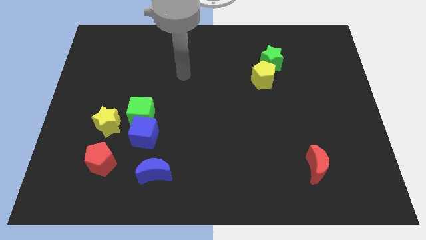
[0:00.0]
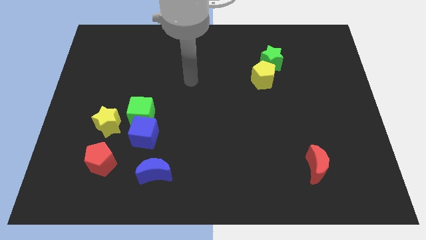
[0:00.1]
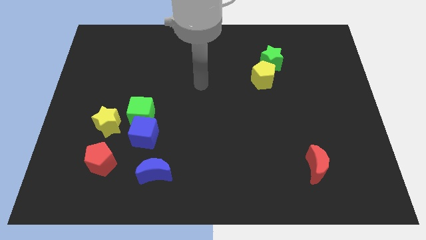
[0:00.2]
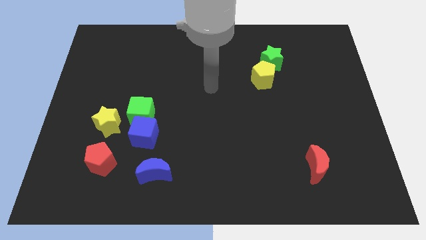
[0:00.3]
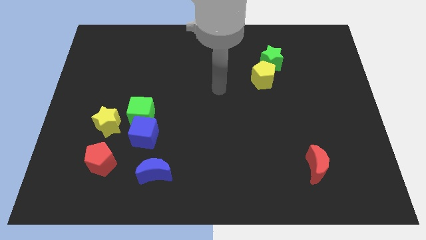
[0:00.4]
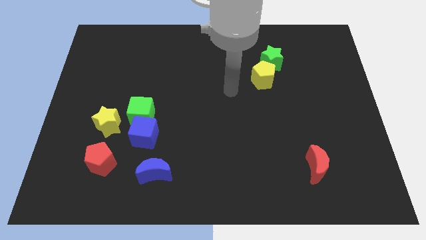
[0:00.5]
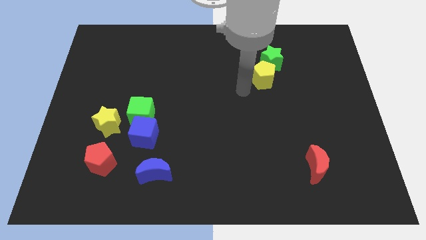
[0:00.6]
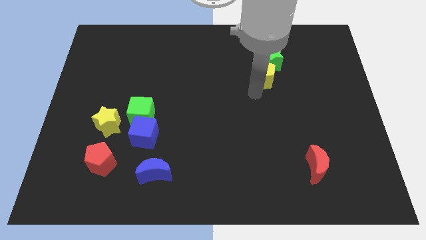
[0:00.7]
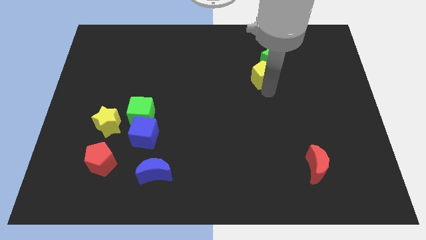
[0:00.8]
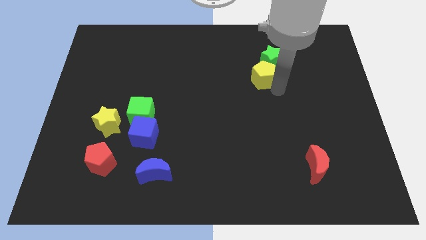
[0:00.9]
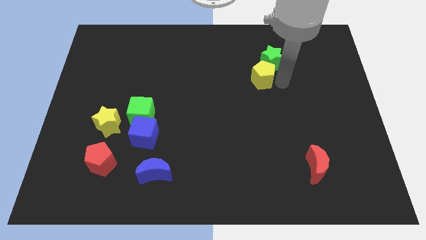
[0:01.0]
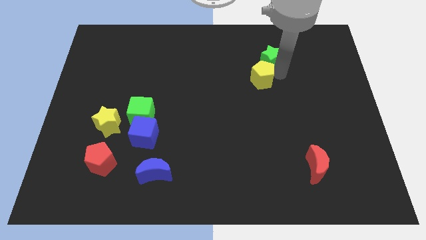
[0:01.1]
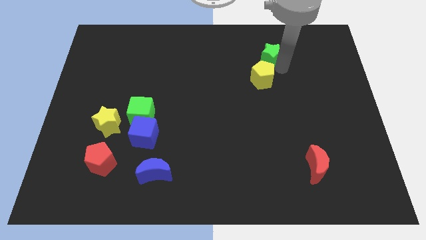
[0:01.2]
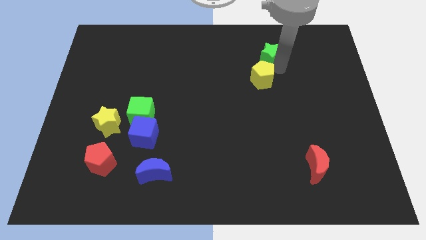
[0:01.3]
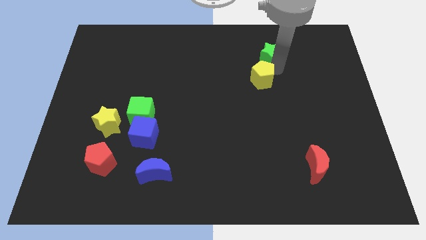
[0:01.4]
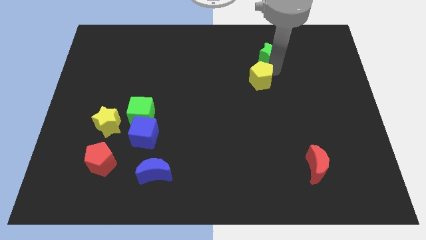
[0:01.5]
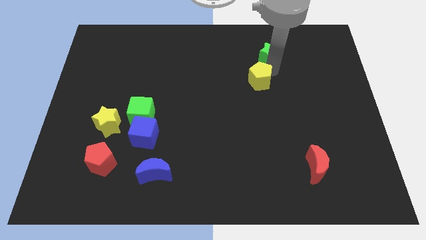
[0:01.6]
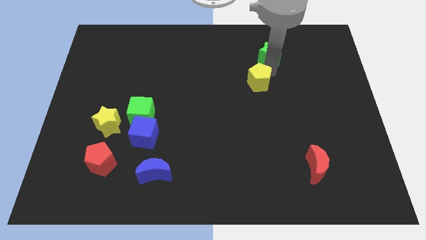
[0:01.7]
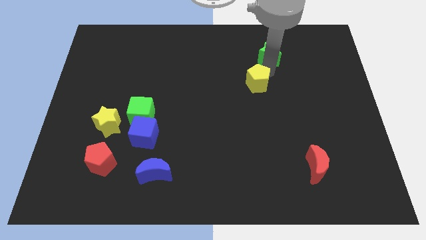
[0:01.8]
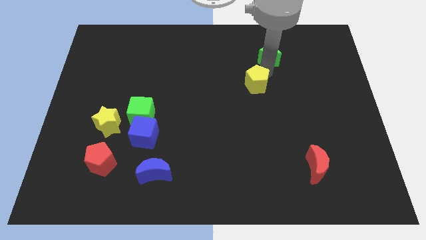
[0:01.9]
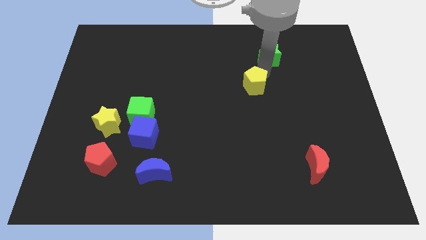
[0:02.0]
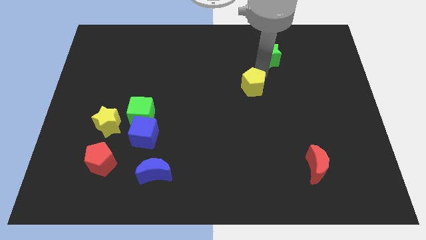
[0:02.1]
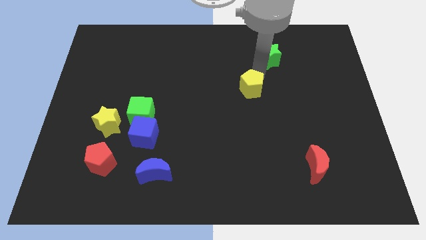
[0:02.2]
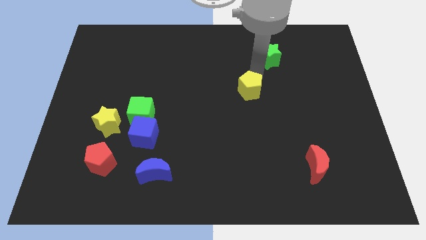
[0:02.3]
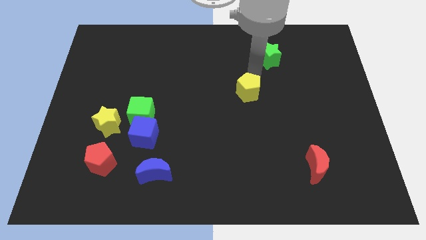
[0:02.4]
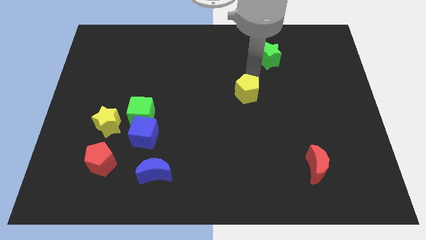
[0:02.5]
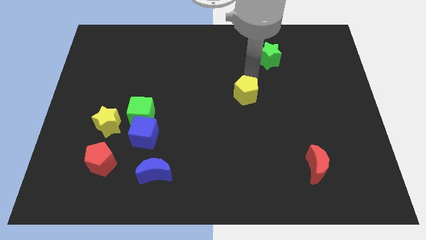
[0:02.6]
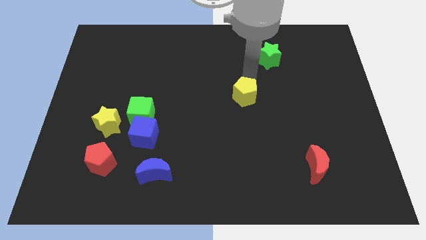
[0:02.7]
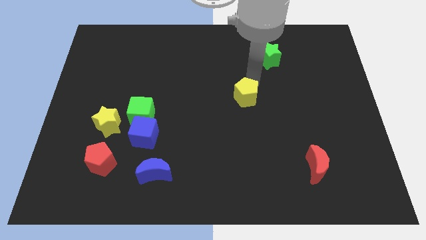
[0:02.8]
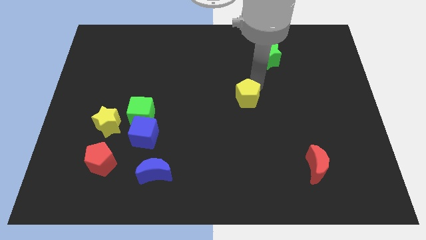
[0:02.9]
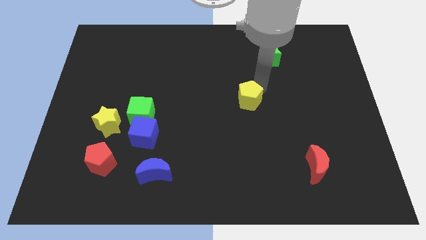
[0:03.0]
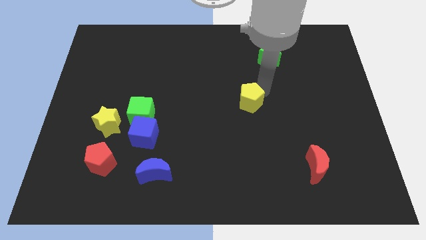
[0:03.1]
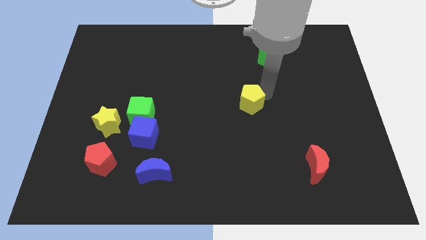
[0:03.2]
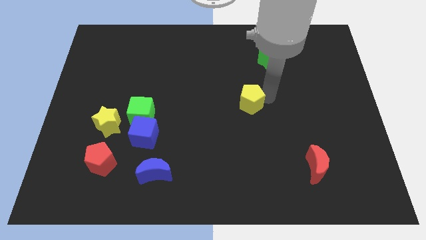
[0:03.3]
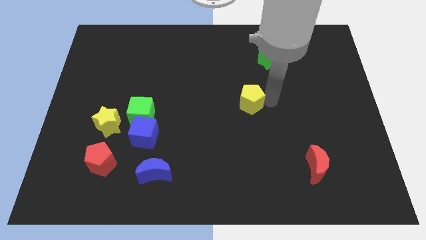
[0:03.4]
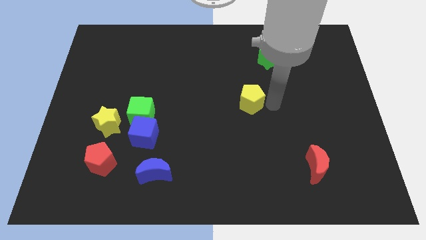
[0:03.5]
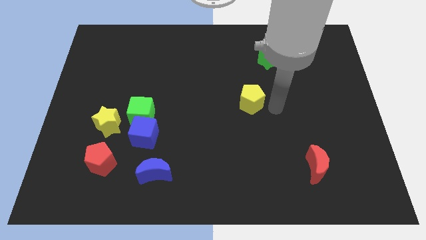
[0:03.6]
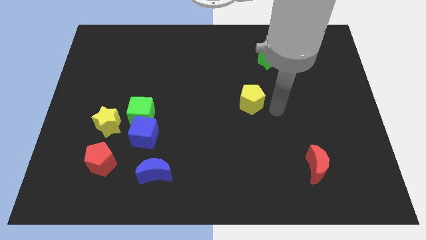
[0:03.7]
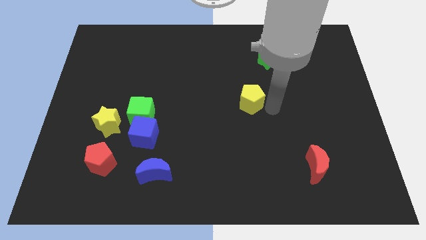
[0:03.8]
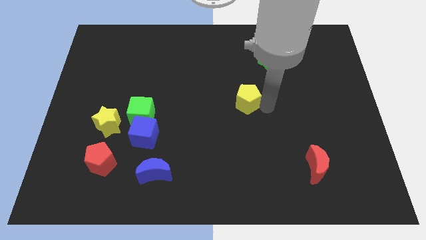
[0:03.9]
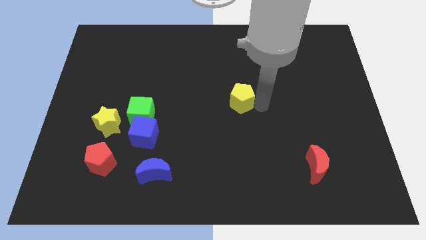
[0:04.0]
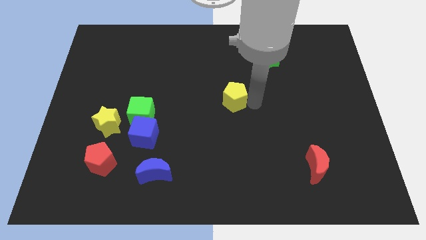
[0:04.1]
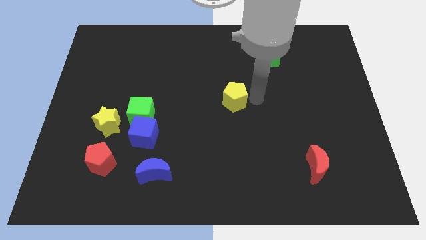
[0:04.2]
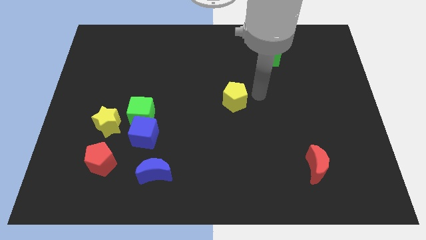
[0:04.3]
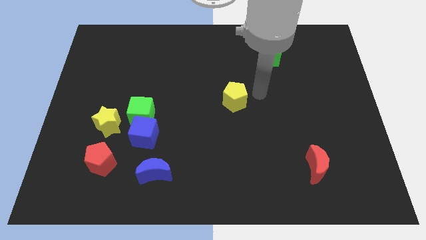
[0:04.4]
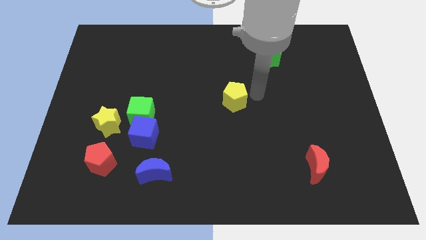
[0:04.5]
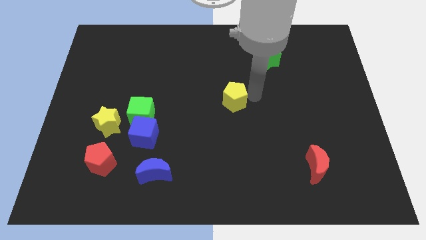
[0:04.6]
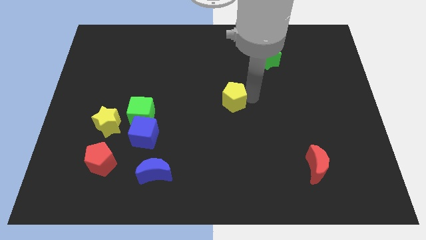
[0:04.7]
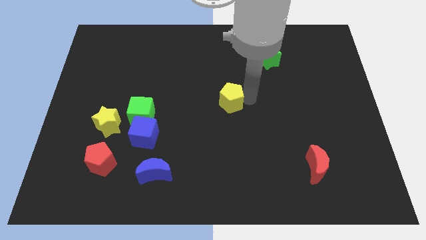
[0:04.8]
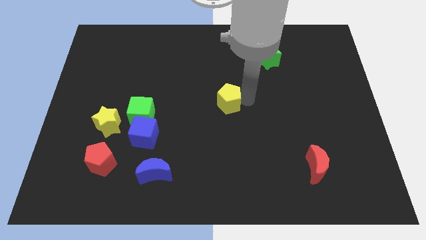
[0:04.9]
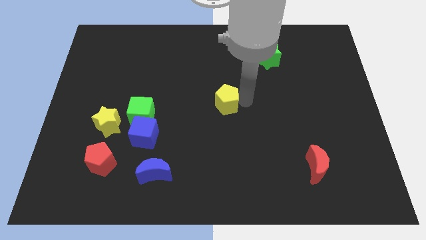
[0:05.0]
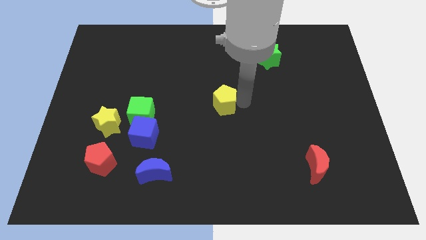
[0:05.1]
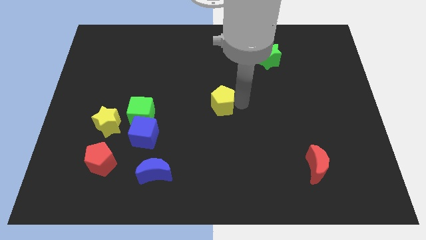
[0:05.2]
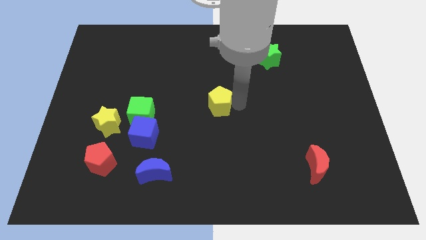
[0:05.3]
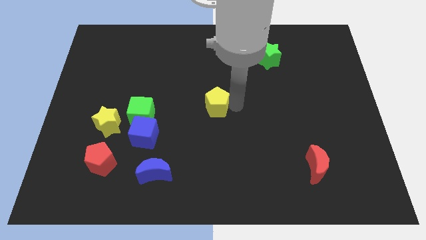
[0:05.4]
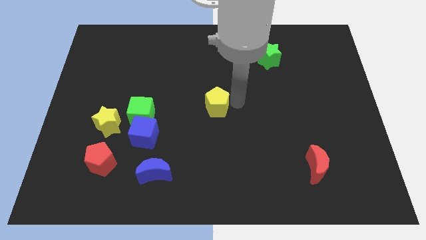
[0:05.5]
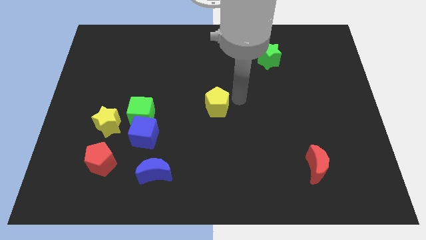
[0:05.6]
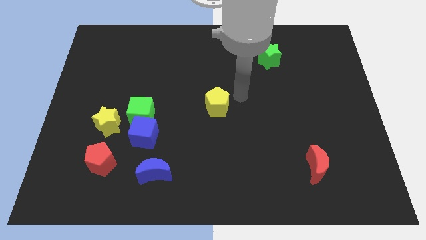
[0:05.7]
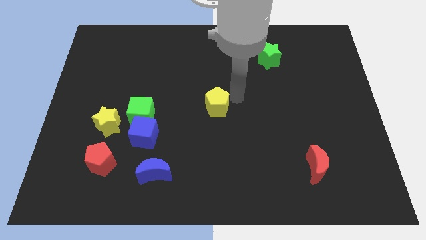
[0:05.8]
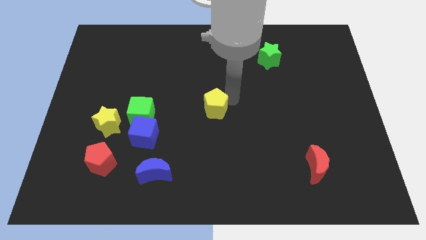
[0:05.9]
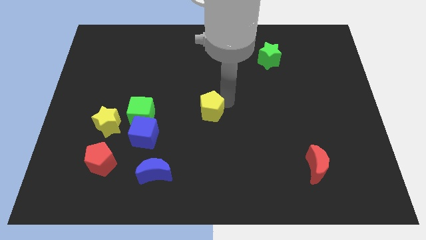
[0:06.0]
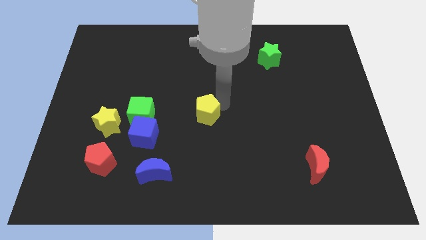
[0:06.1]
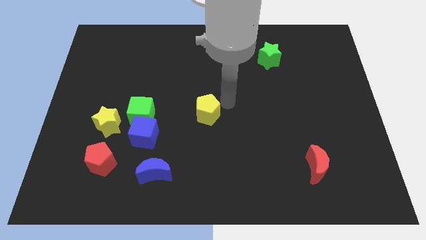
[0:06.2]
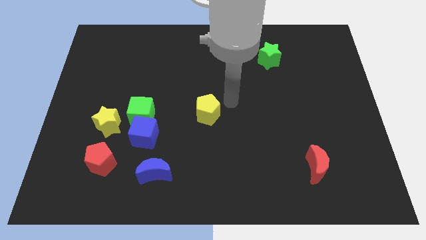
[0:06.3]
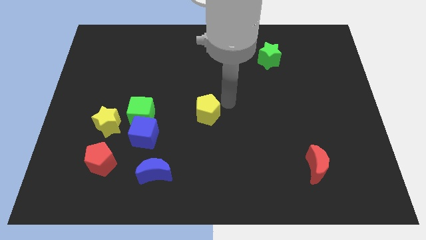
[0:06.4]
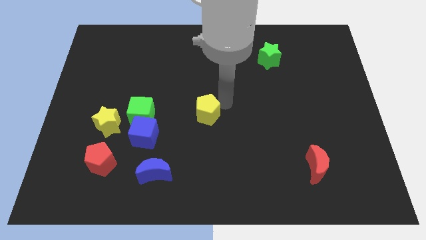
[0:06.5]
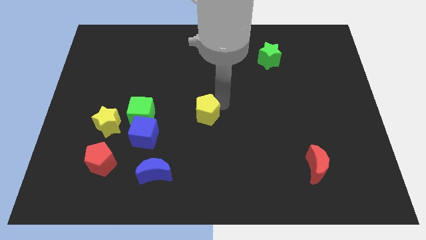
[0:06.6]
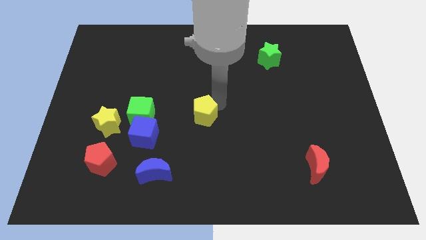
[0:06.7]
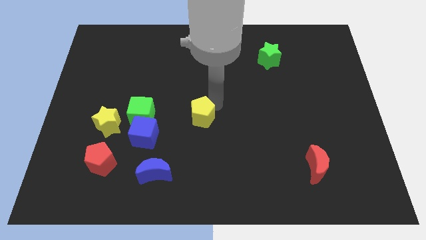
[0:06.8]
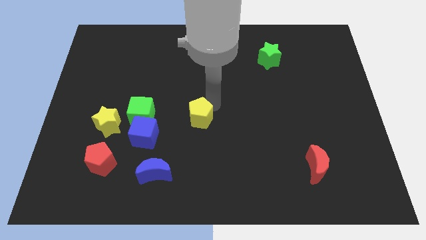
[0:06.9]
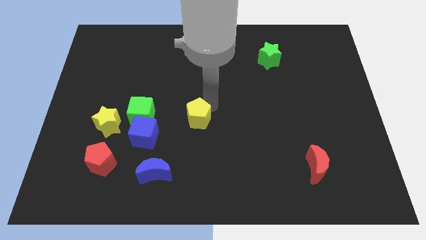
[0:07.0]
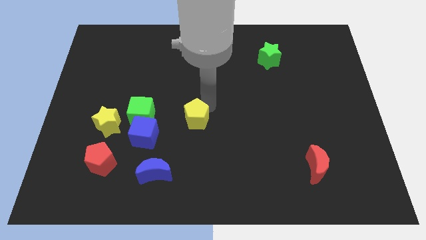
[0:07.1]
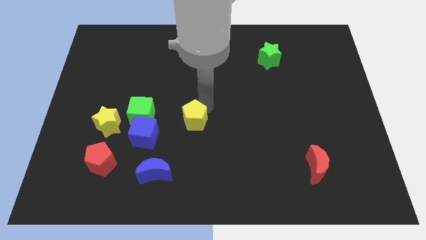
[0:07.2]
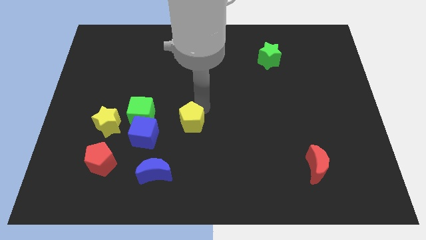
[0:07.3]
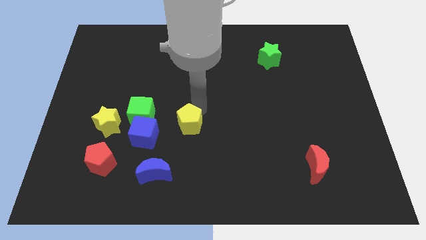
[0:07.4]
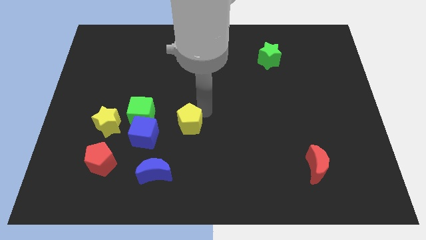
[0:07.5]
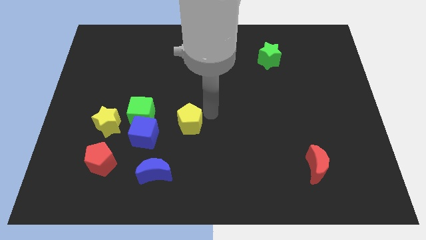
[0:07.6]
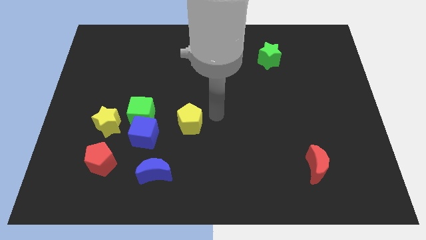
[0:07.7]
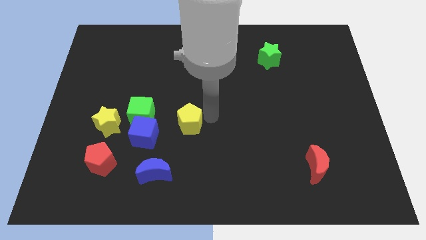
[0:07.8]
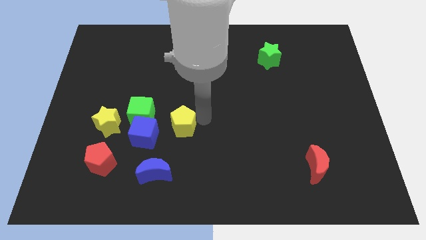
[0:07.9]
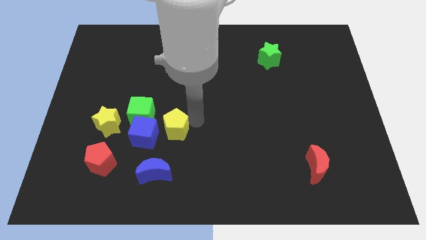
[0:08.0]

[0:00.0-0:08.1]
put the yellow pentagon to the top of the blue moon
